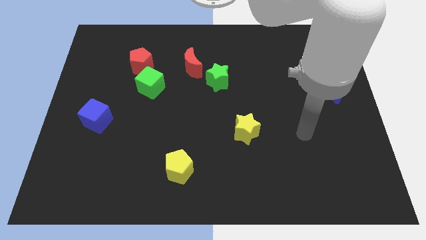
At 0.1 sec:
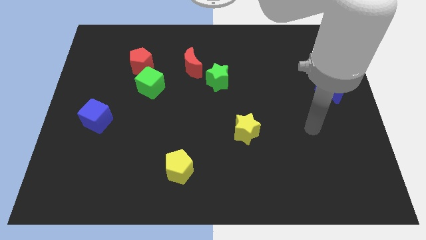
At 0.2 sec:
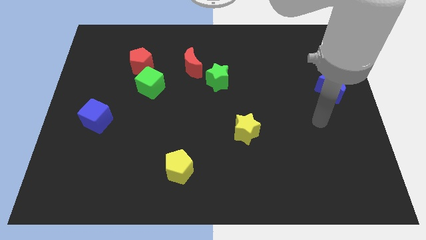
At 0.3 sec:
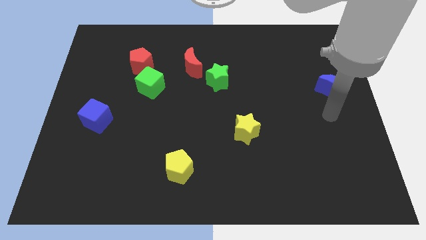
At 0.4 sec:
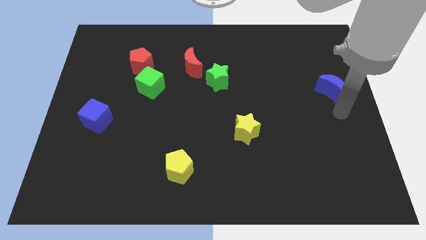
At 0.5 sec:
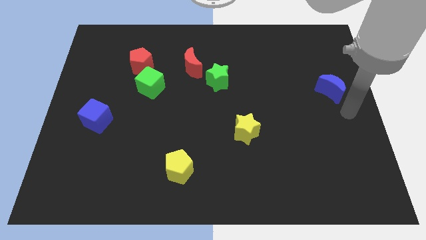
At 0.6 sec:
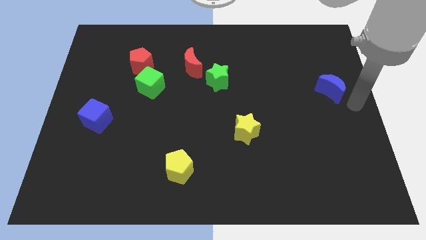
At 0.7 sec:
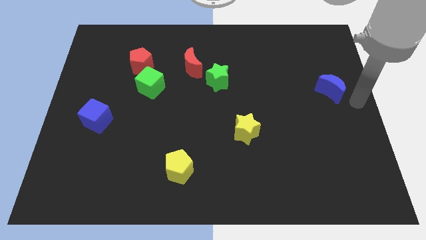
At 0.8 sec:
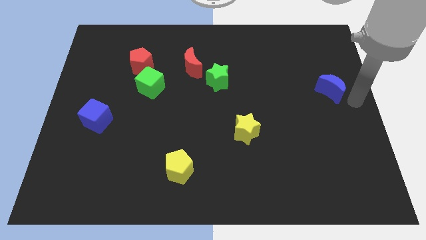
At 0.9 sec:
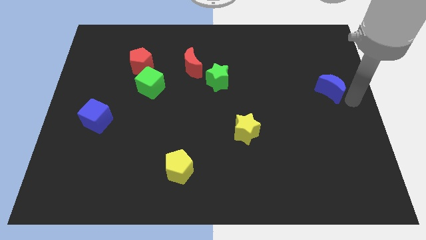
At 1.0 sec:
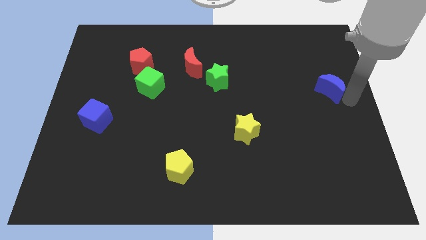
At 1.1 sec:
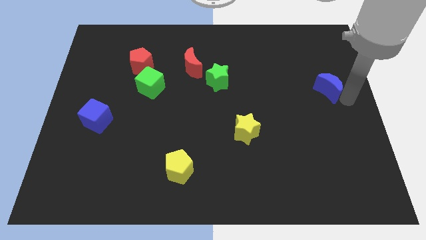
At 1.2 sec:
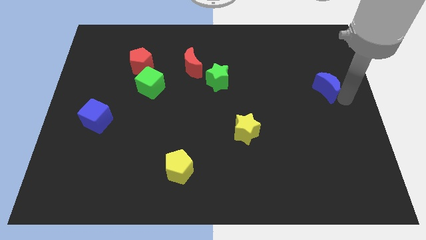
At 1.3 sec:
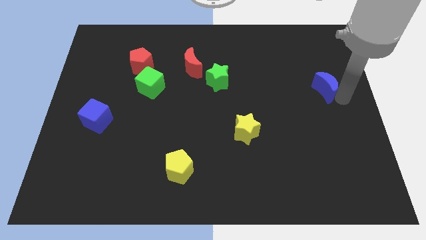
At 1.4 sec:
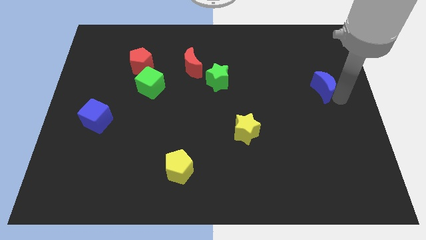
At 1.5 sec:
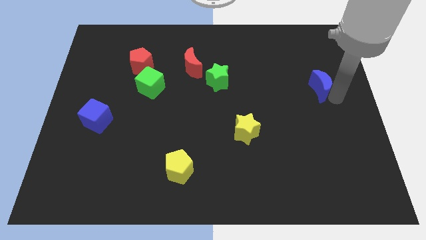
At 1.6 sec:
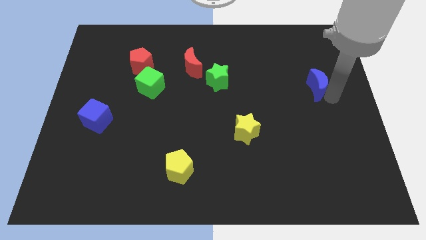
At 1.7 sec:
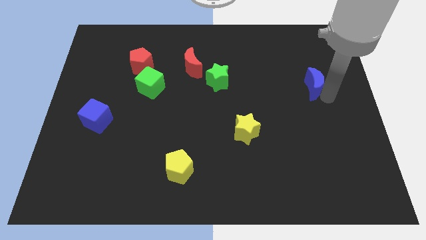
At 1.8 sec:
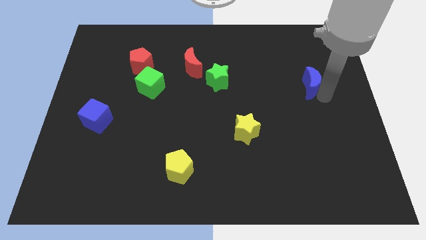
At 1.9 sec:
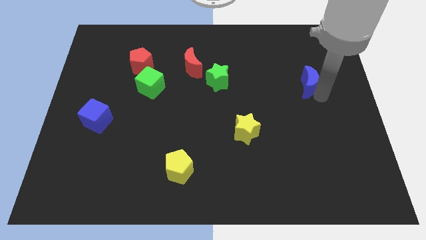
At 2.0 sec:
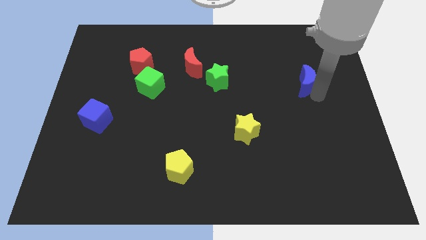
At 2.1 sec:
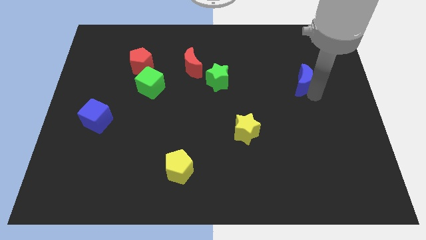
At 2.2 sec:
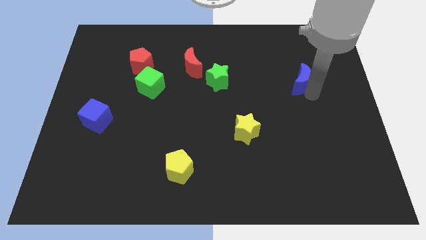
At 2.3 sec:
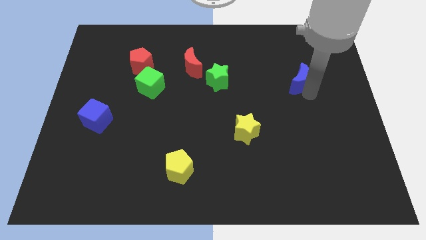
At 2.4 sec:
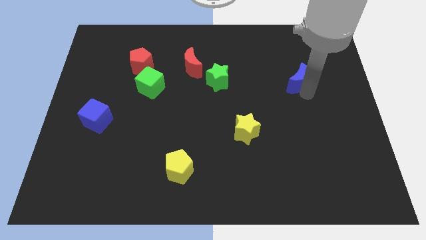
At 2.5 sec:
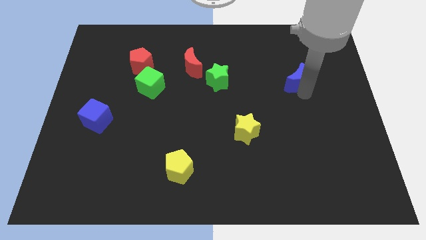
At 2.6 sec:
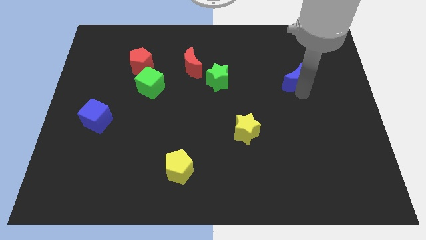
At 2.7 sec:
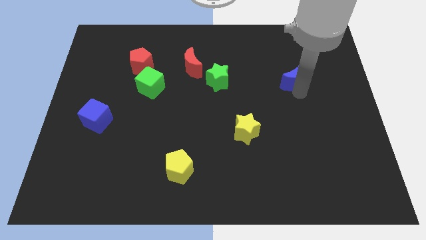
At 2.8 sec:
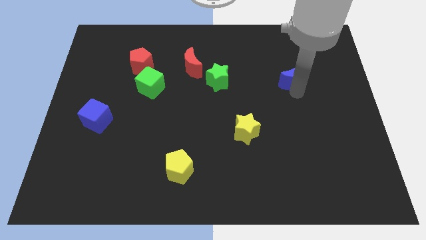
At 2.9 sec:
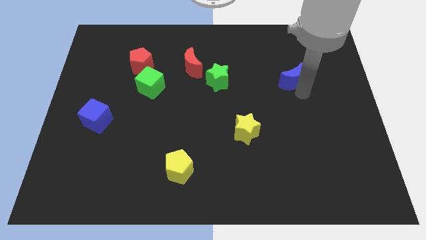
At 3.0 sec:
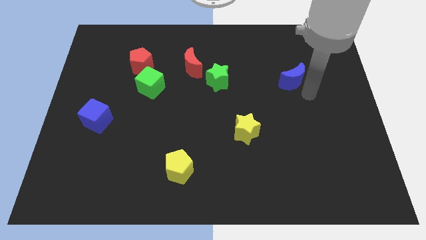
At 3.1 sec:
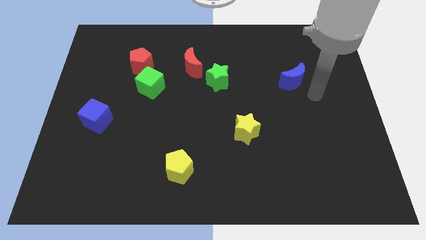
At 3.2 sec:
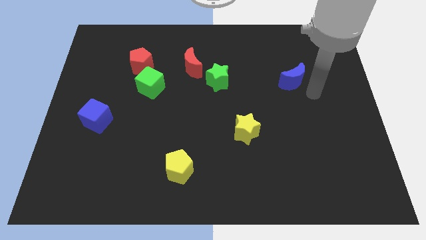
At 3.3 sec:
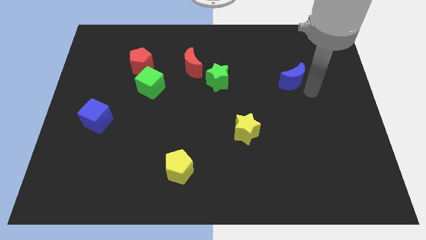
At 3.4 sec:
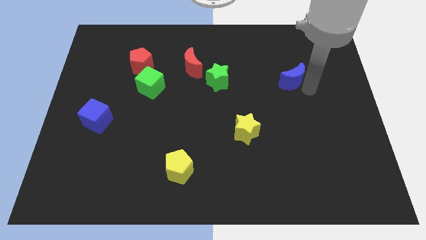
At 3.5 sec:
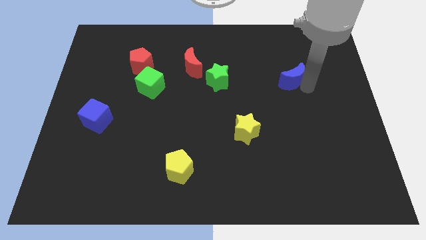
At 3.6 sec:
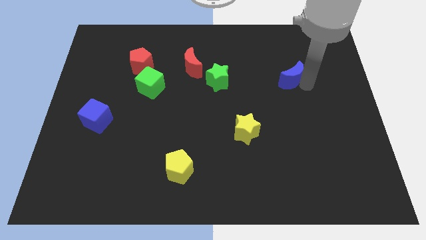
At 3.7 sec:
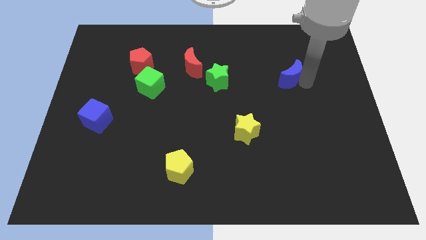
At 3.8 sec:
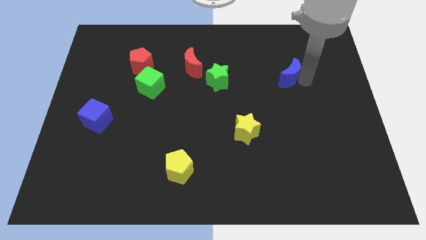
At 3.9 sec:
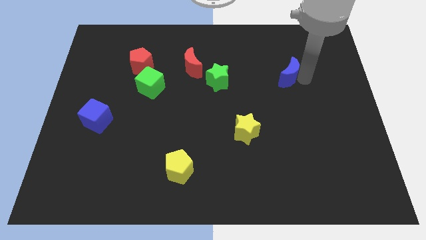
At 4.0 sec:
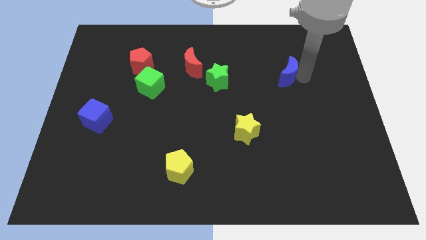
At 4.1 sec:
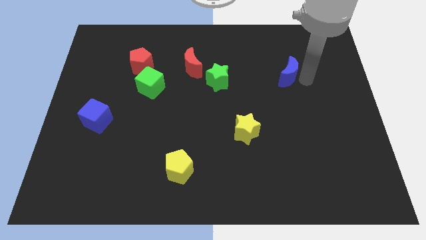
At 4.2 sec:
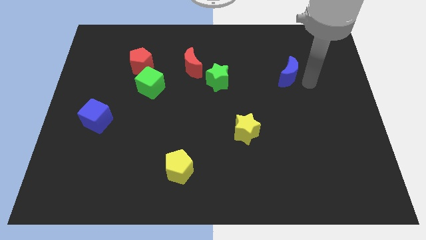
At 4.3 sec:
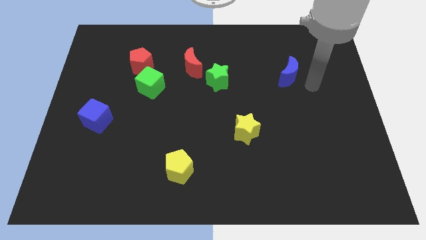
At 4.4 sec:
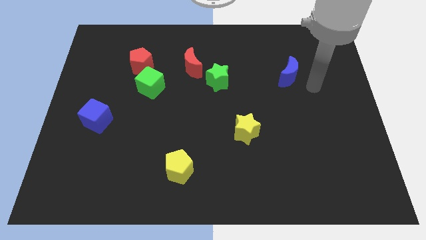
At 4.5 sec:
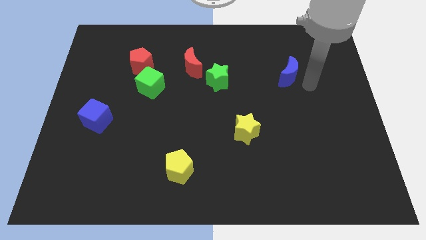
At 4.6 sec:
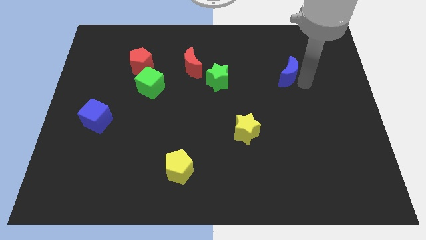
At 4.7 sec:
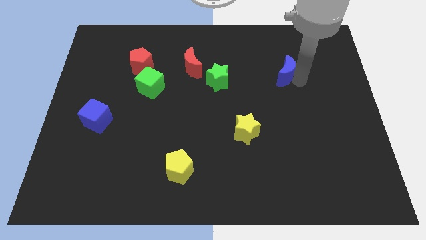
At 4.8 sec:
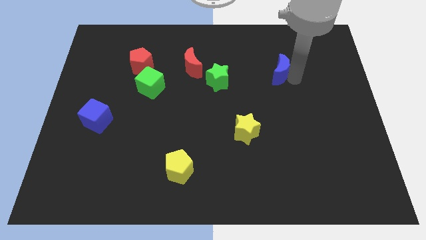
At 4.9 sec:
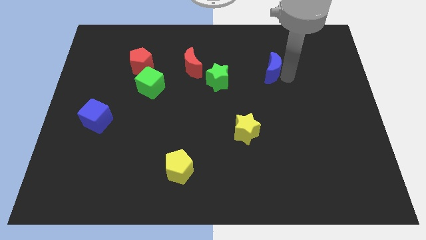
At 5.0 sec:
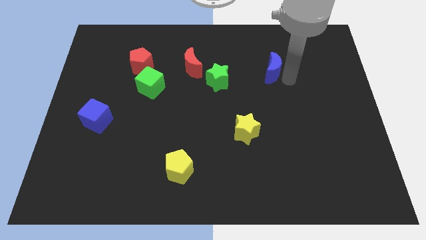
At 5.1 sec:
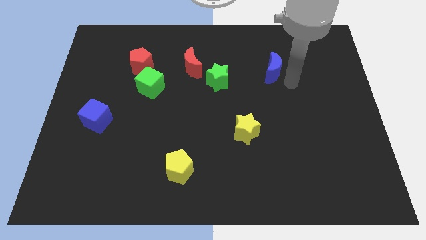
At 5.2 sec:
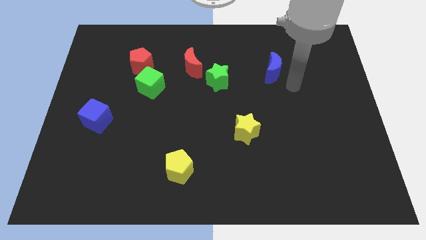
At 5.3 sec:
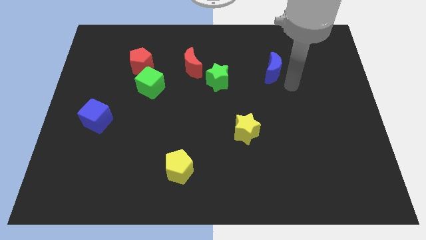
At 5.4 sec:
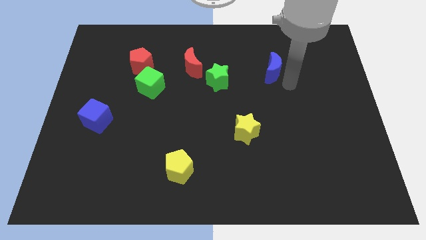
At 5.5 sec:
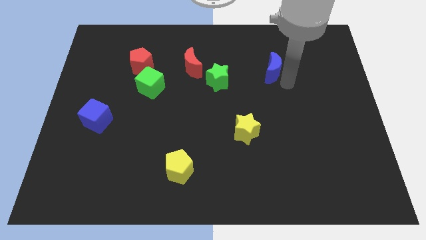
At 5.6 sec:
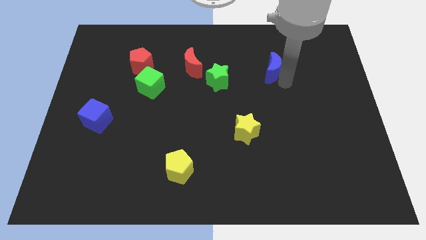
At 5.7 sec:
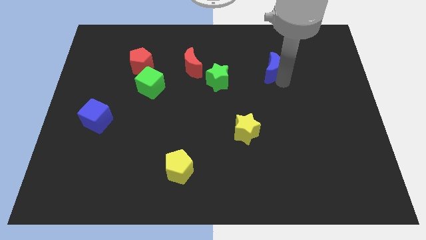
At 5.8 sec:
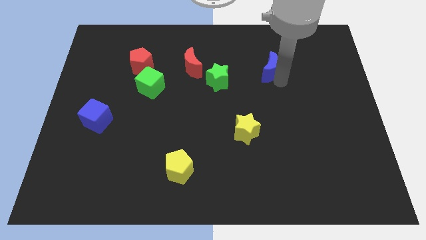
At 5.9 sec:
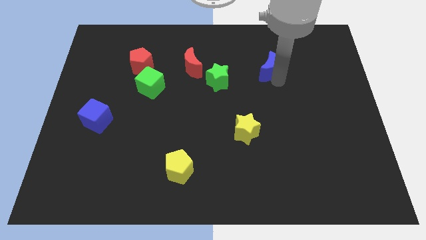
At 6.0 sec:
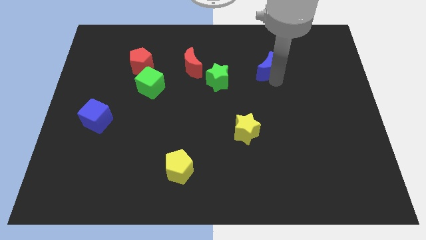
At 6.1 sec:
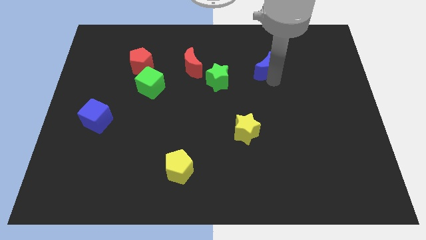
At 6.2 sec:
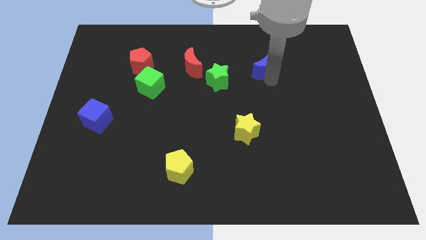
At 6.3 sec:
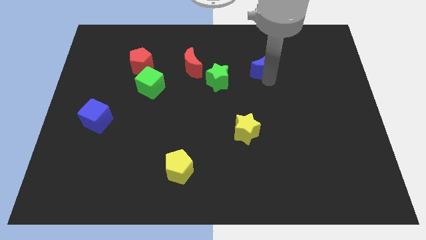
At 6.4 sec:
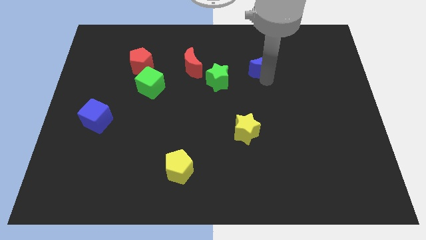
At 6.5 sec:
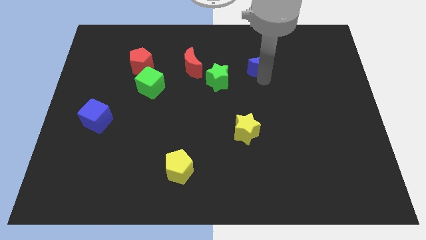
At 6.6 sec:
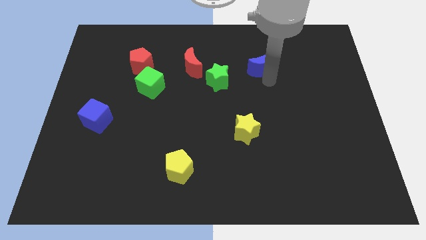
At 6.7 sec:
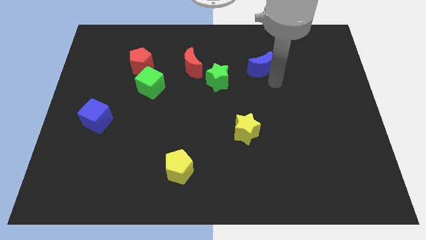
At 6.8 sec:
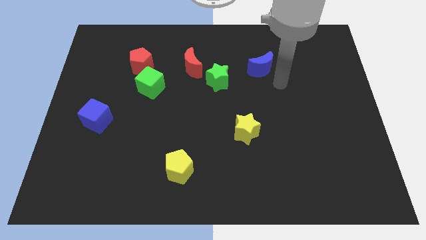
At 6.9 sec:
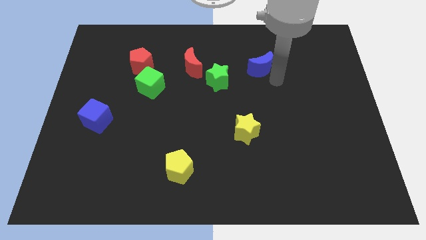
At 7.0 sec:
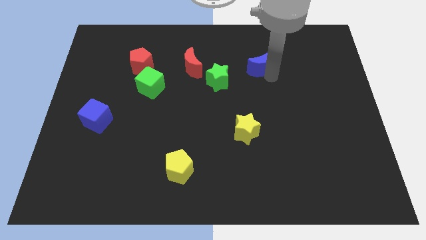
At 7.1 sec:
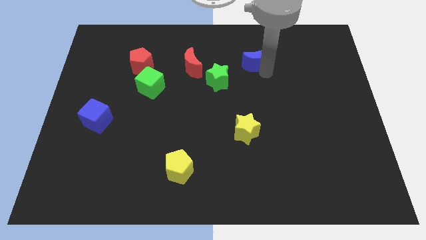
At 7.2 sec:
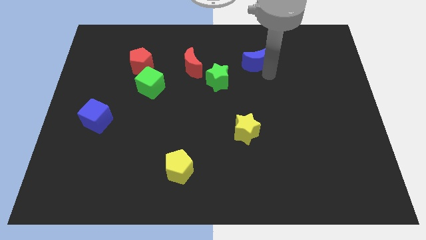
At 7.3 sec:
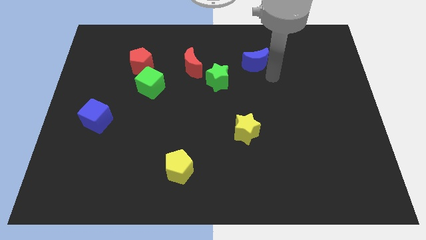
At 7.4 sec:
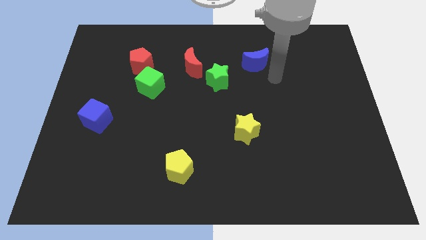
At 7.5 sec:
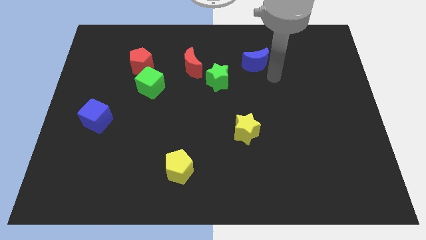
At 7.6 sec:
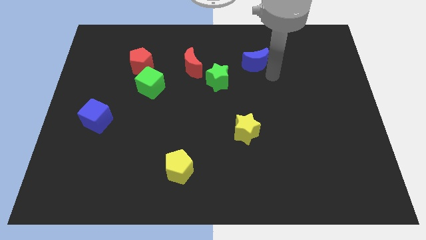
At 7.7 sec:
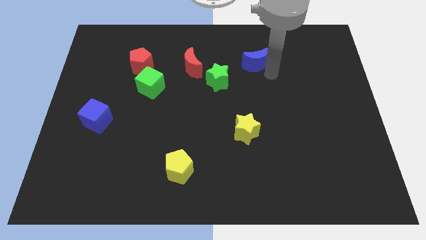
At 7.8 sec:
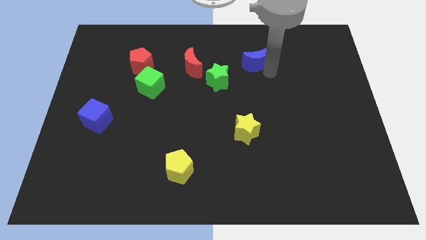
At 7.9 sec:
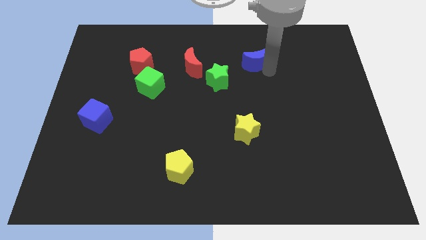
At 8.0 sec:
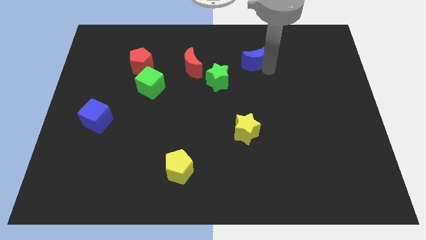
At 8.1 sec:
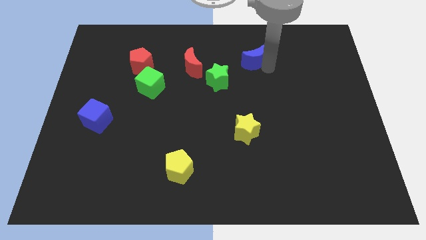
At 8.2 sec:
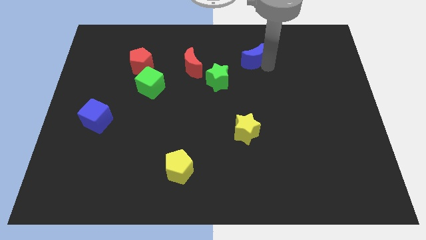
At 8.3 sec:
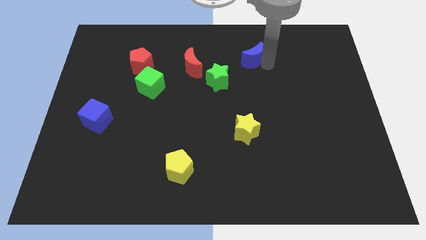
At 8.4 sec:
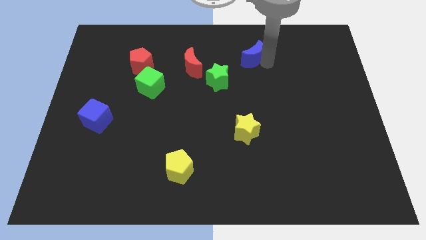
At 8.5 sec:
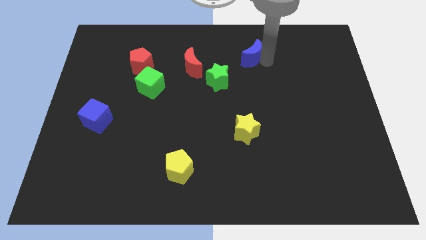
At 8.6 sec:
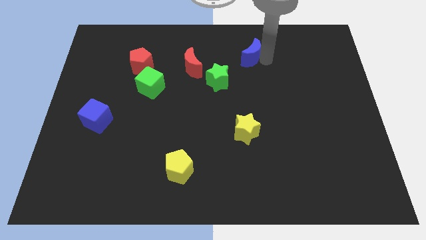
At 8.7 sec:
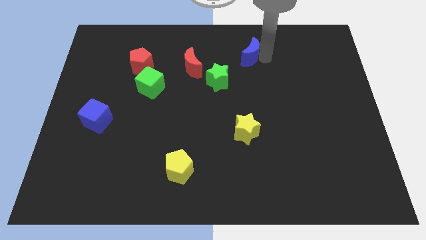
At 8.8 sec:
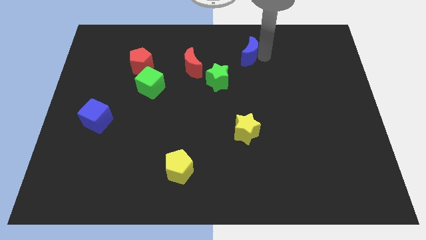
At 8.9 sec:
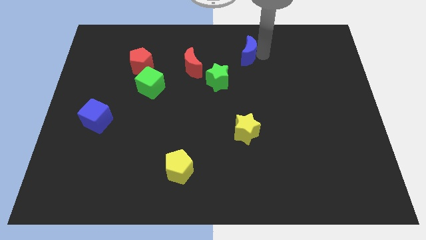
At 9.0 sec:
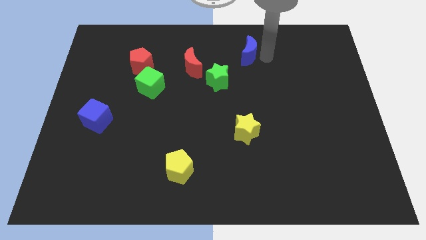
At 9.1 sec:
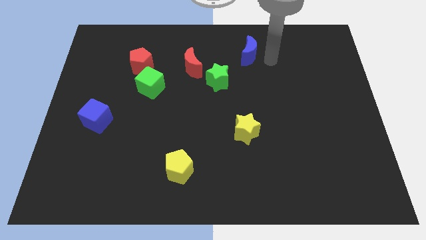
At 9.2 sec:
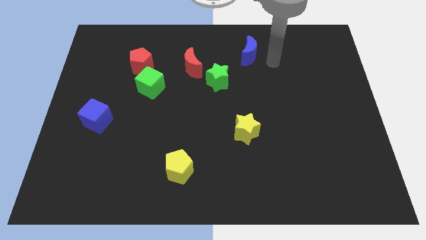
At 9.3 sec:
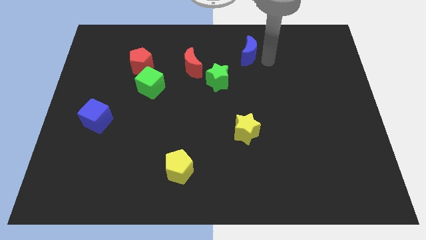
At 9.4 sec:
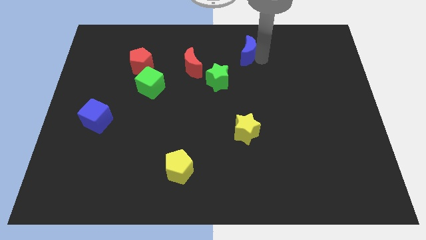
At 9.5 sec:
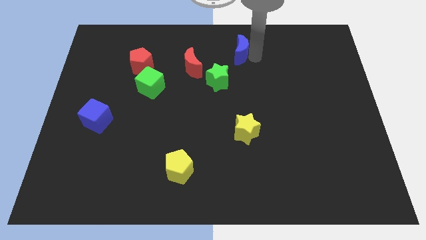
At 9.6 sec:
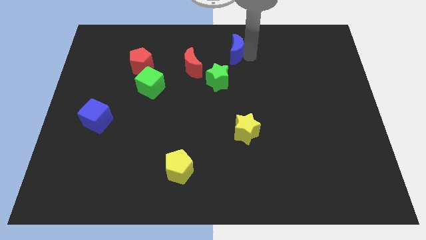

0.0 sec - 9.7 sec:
put the blue moon to the towards your base
